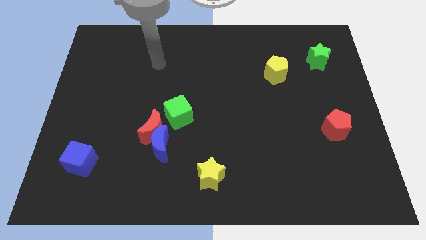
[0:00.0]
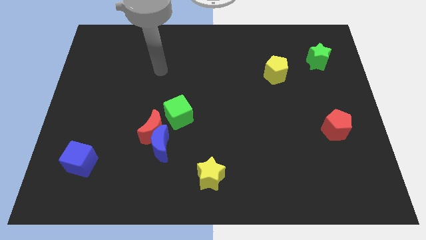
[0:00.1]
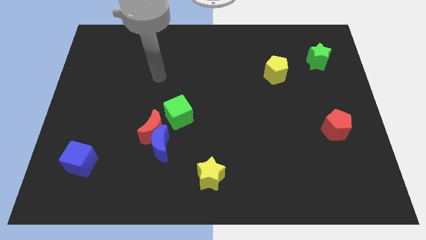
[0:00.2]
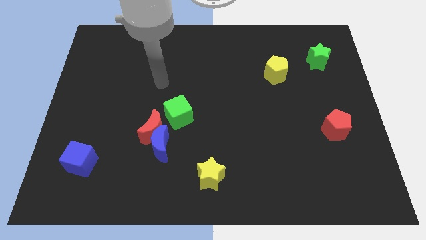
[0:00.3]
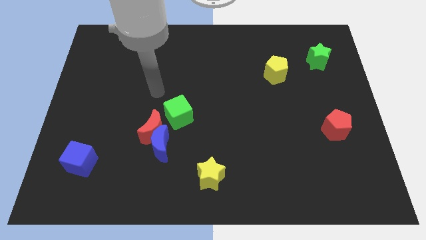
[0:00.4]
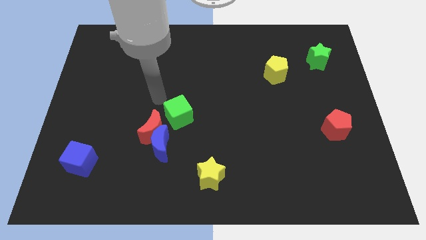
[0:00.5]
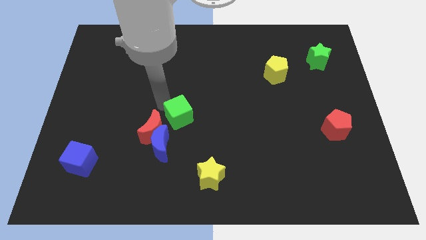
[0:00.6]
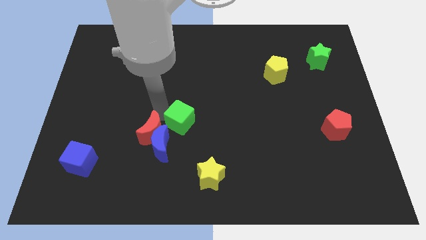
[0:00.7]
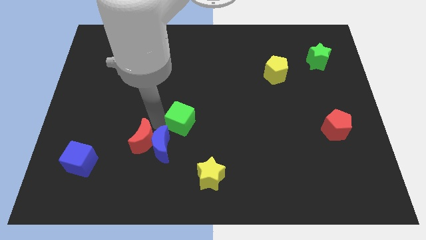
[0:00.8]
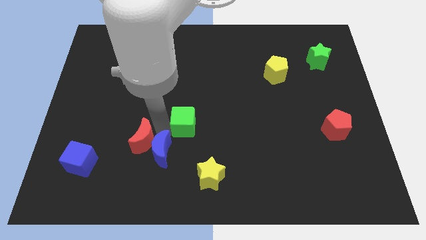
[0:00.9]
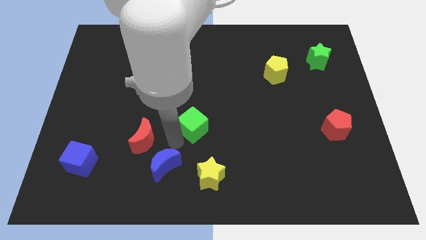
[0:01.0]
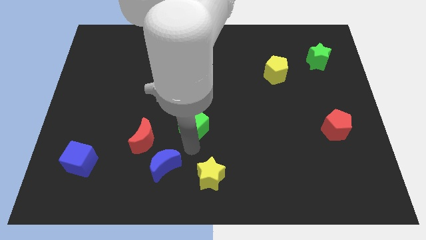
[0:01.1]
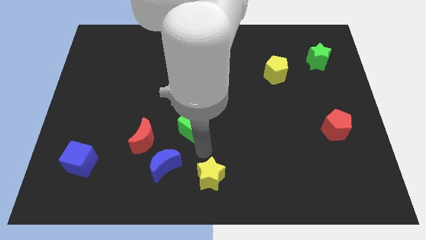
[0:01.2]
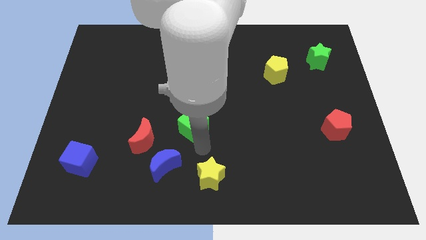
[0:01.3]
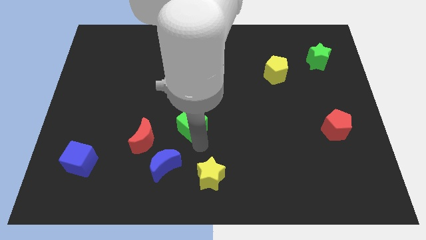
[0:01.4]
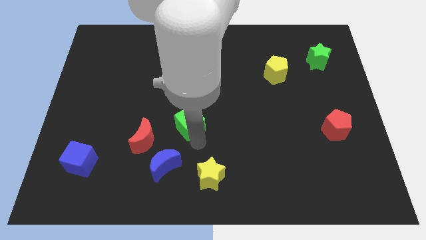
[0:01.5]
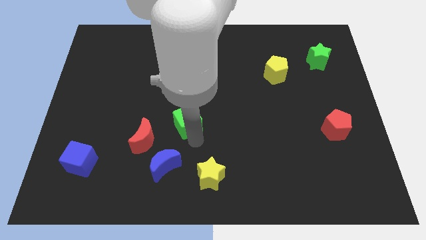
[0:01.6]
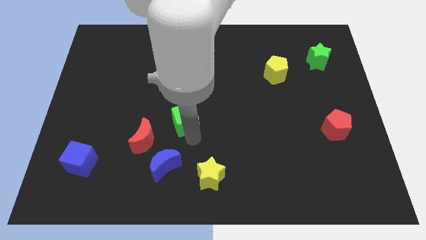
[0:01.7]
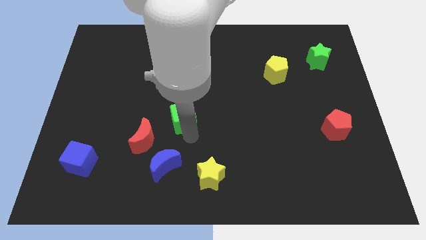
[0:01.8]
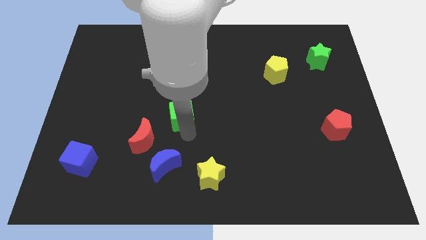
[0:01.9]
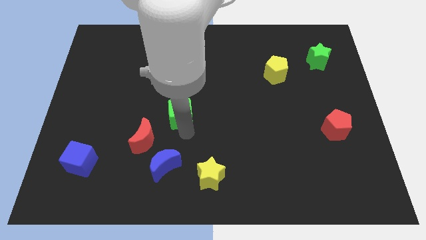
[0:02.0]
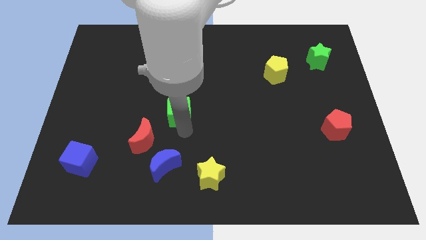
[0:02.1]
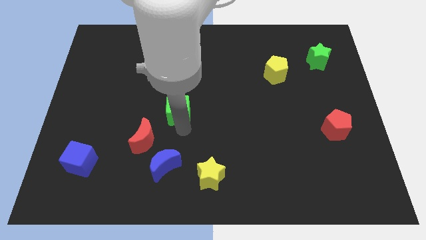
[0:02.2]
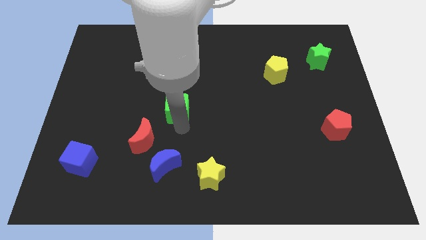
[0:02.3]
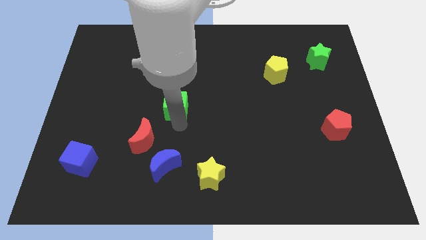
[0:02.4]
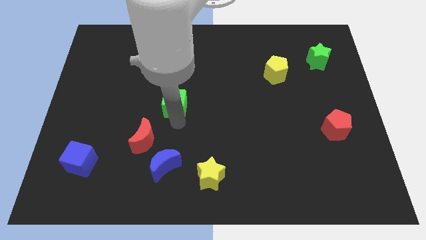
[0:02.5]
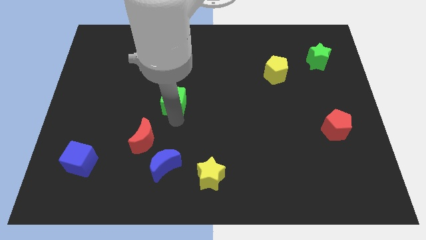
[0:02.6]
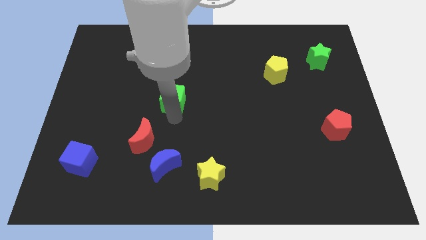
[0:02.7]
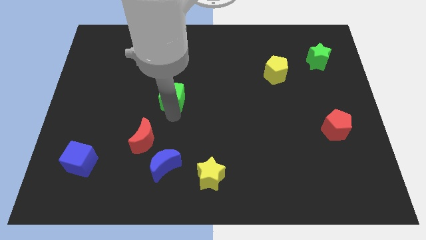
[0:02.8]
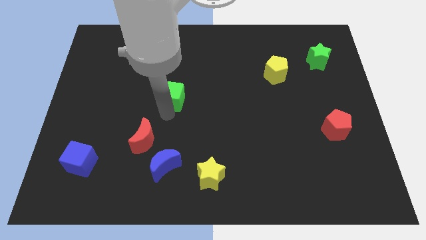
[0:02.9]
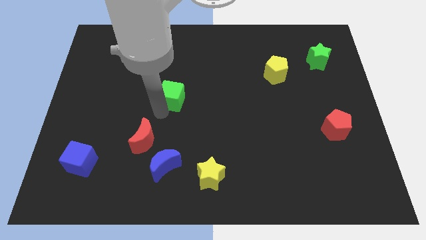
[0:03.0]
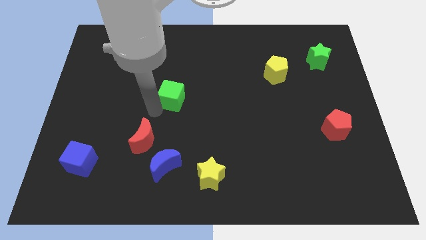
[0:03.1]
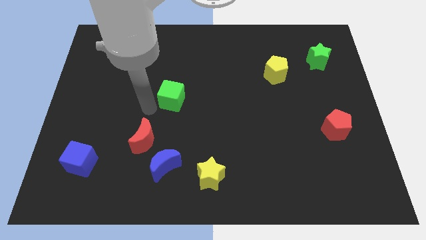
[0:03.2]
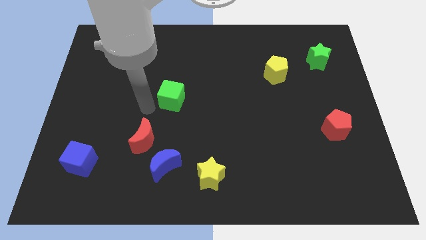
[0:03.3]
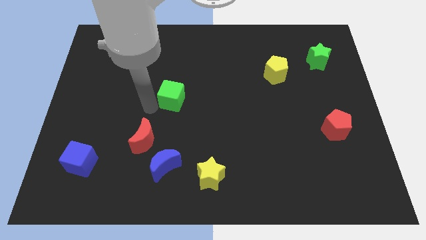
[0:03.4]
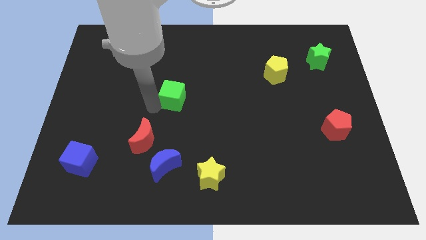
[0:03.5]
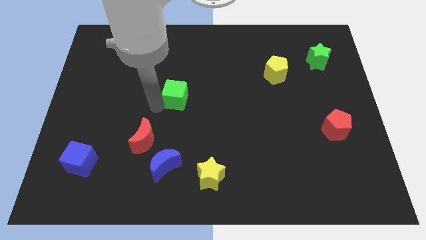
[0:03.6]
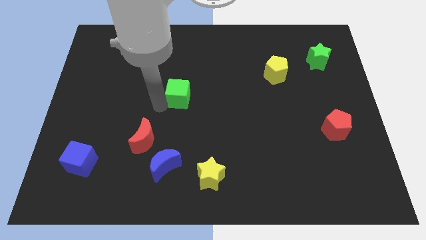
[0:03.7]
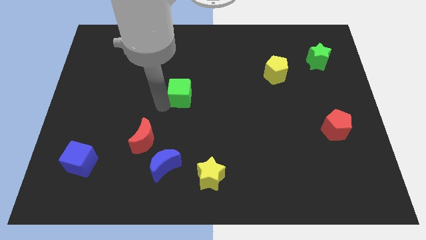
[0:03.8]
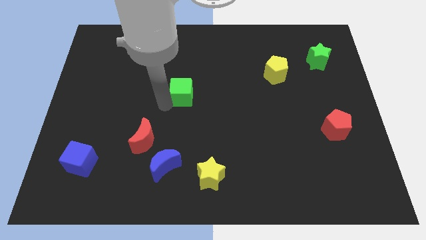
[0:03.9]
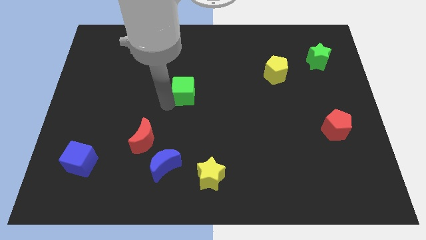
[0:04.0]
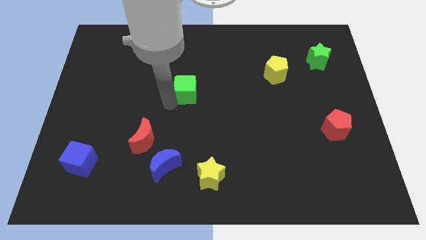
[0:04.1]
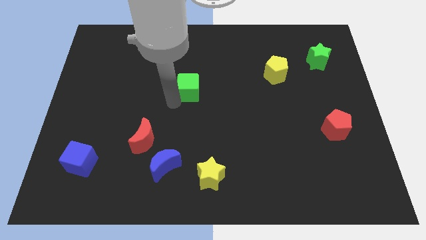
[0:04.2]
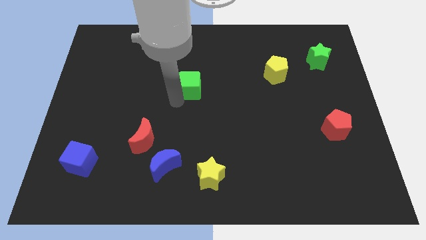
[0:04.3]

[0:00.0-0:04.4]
move the green cube diagonally up and right a little bit

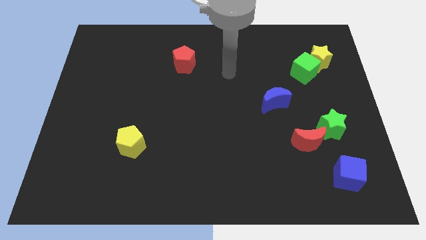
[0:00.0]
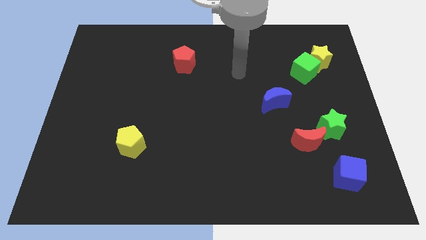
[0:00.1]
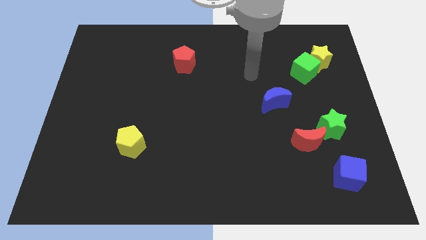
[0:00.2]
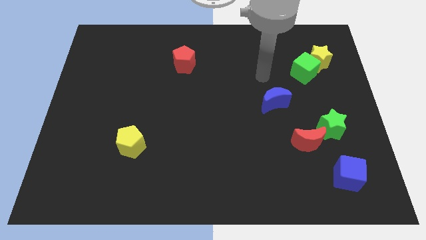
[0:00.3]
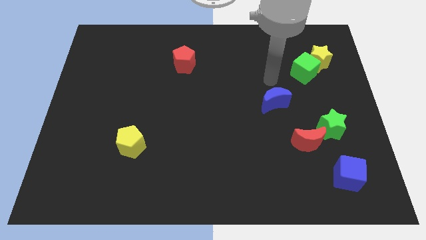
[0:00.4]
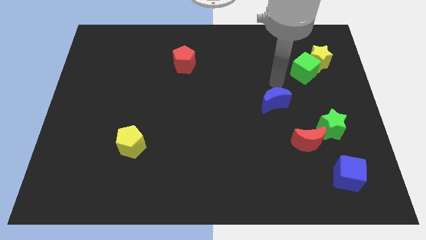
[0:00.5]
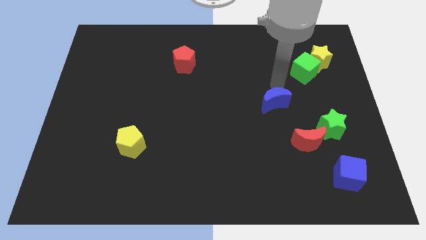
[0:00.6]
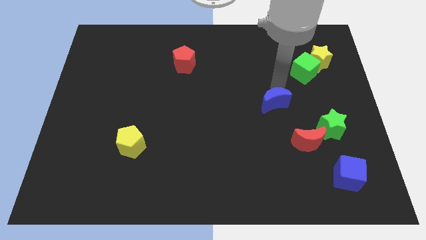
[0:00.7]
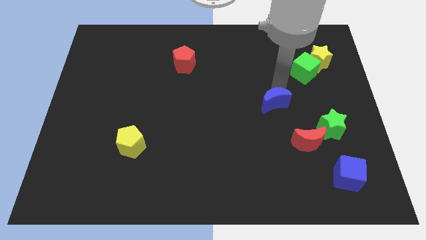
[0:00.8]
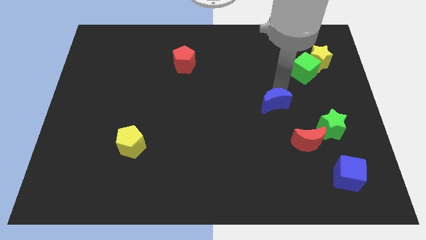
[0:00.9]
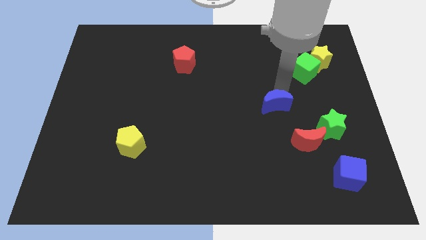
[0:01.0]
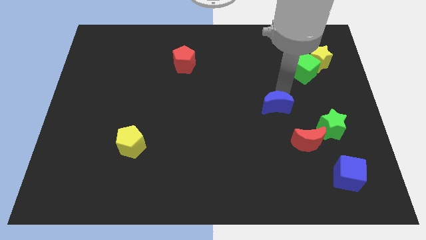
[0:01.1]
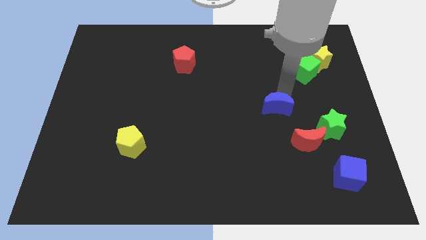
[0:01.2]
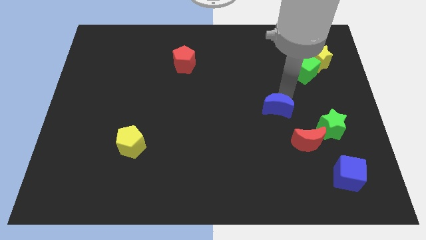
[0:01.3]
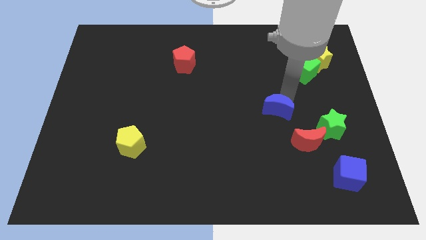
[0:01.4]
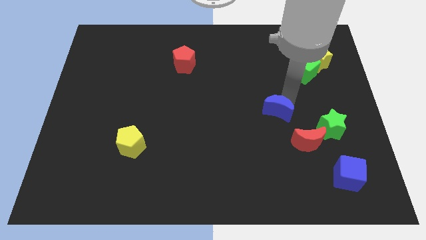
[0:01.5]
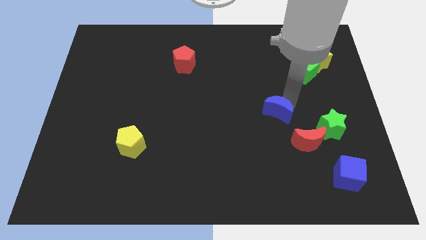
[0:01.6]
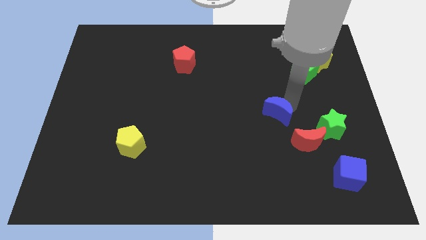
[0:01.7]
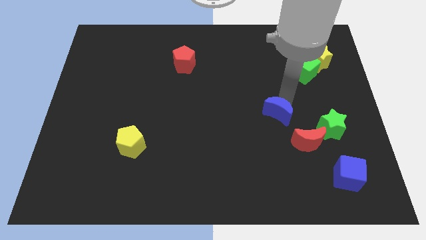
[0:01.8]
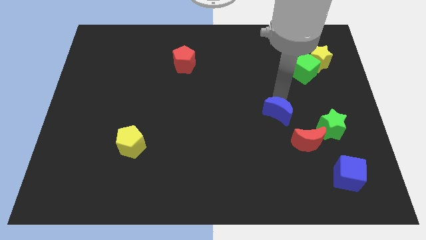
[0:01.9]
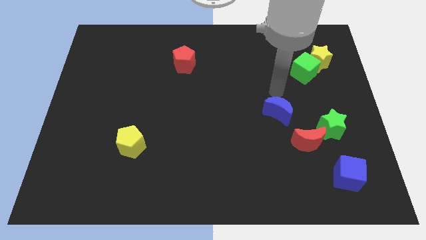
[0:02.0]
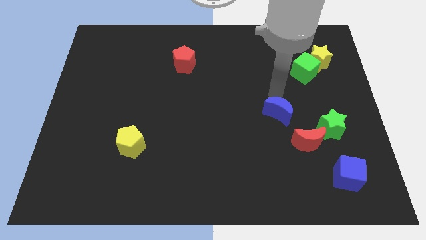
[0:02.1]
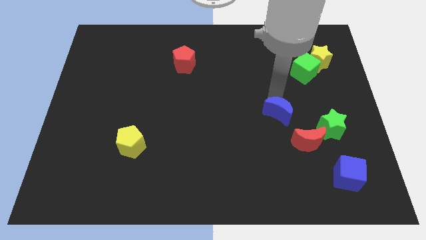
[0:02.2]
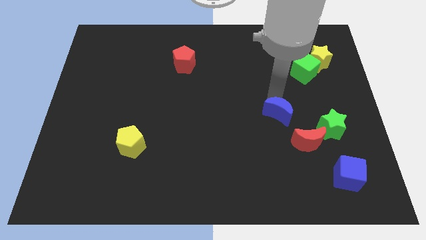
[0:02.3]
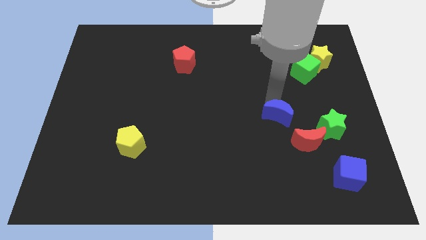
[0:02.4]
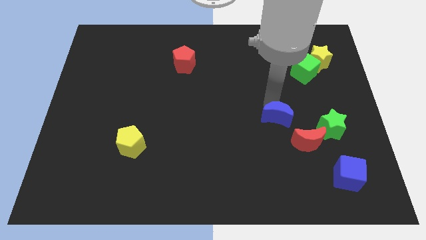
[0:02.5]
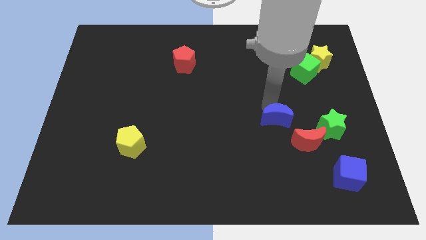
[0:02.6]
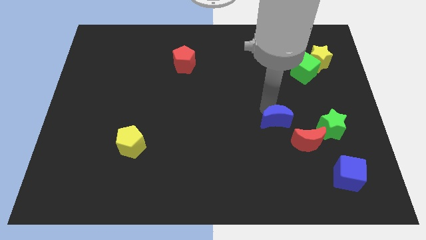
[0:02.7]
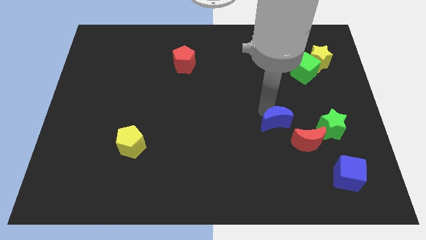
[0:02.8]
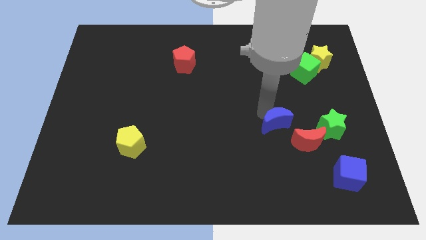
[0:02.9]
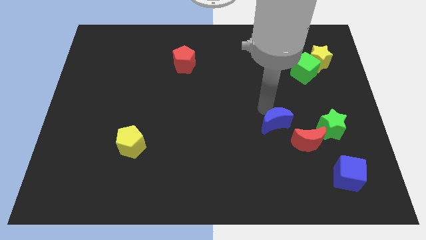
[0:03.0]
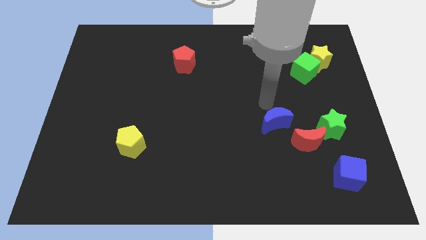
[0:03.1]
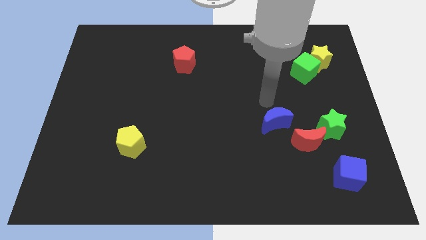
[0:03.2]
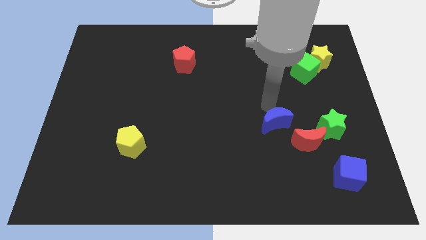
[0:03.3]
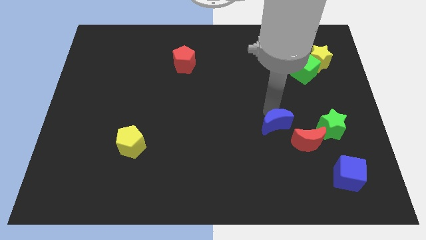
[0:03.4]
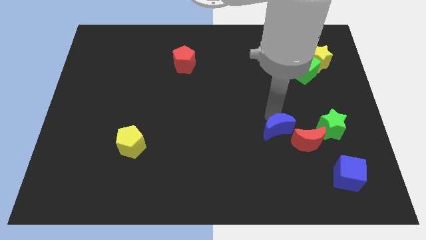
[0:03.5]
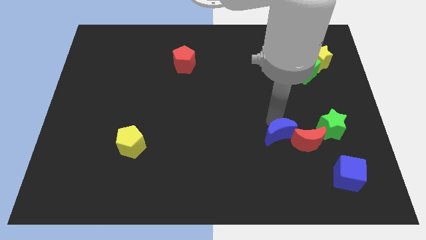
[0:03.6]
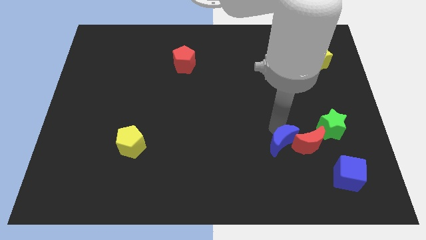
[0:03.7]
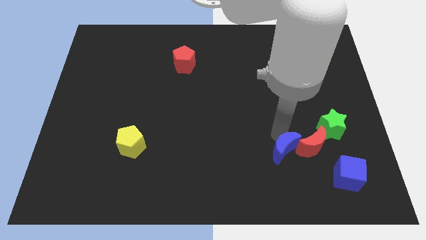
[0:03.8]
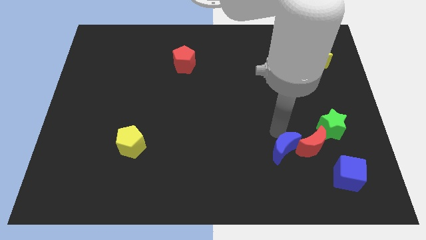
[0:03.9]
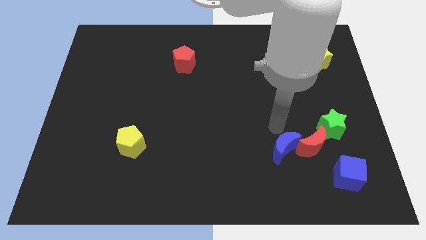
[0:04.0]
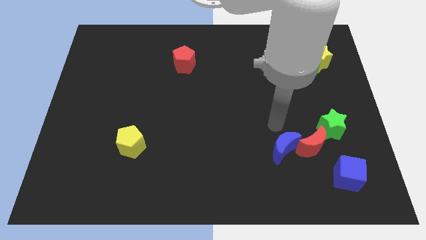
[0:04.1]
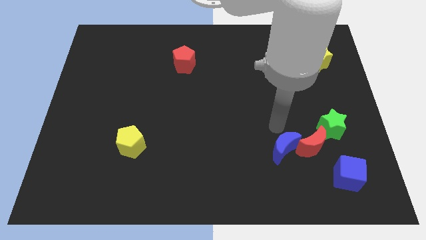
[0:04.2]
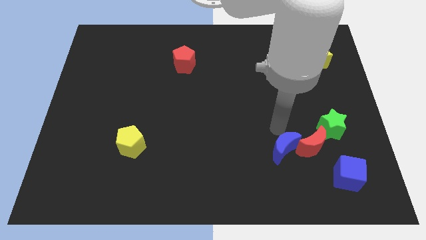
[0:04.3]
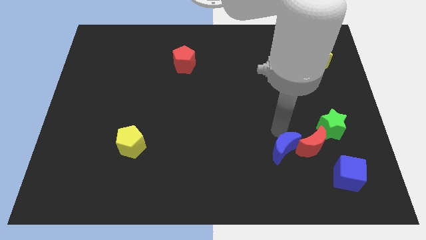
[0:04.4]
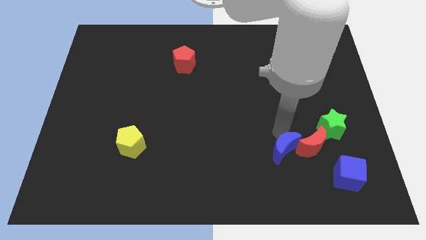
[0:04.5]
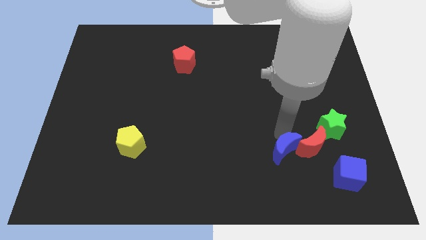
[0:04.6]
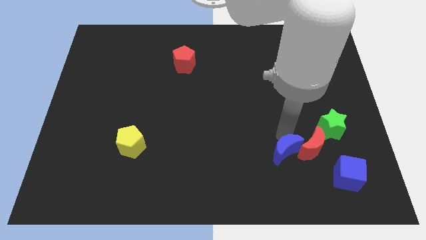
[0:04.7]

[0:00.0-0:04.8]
push the blue moon slightly down and to the right
